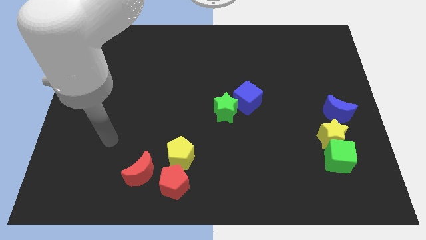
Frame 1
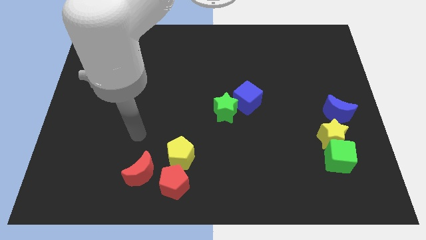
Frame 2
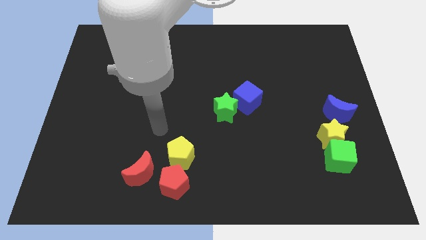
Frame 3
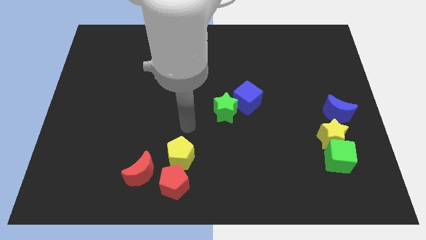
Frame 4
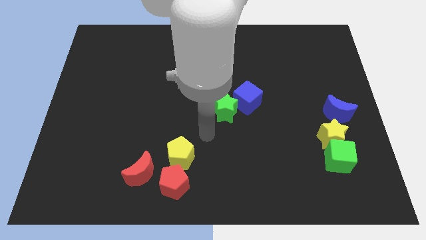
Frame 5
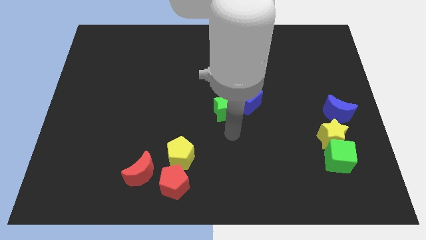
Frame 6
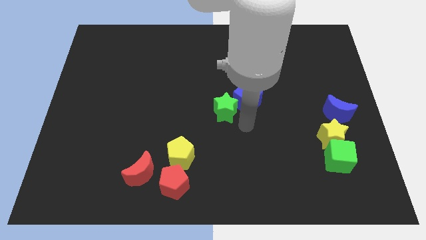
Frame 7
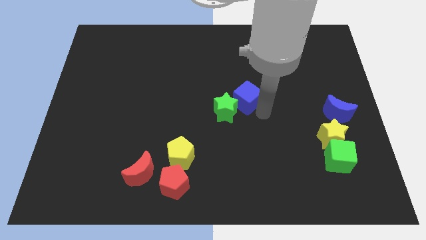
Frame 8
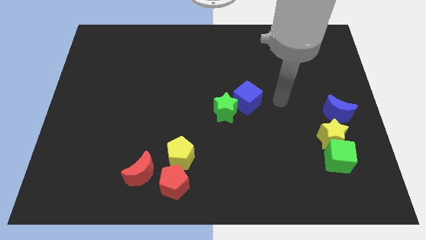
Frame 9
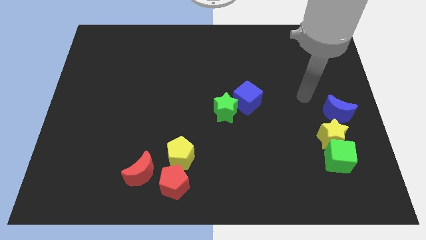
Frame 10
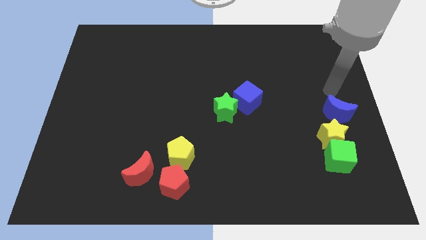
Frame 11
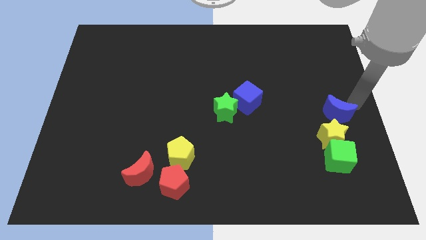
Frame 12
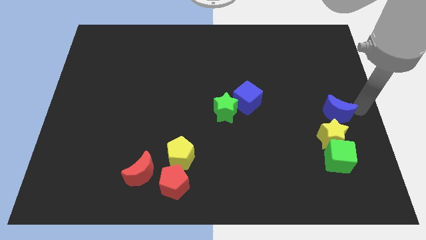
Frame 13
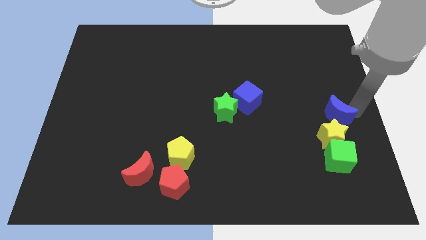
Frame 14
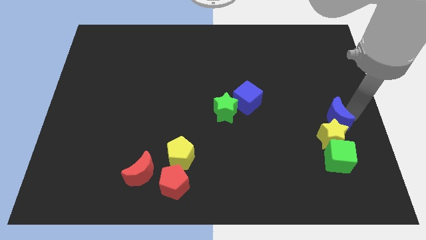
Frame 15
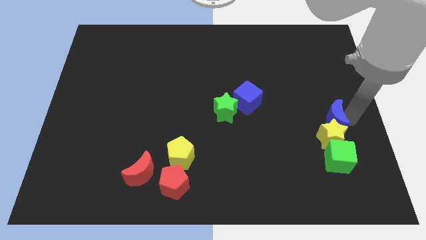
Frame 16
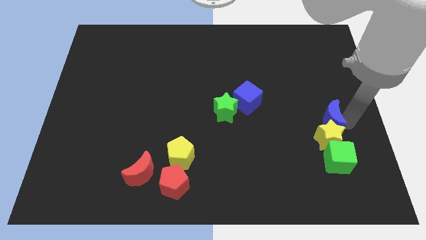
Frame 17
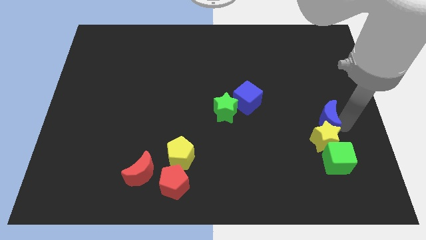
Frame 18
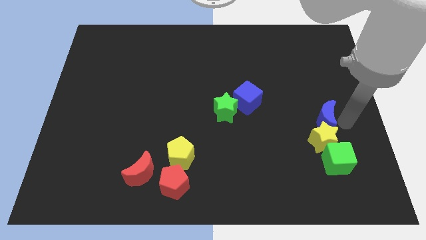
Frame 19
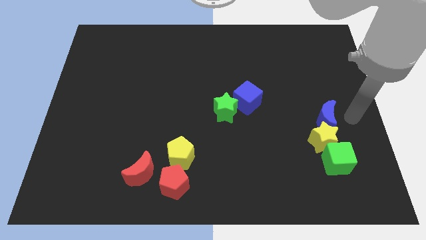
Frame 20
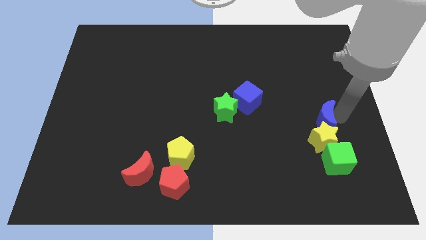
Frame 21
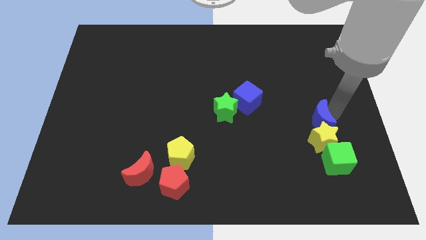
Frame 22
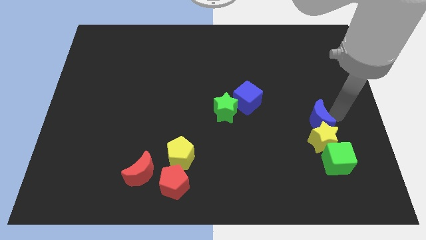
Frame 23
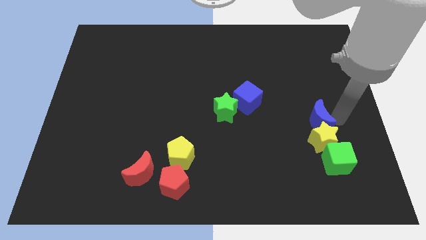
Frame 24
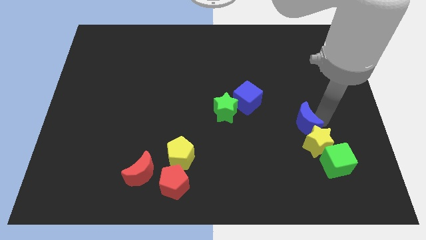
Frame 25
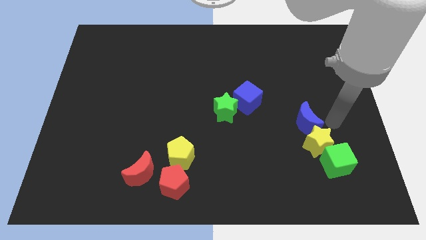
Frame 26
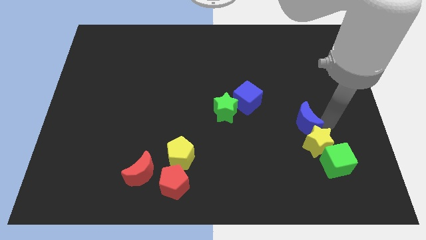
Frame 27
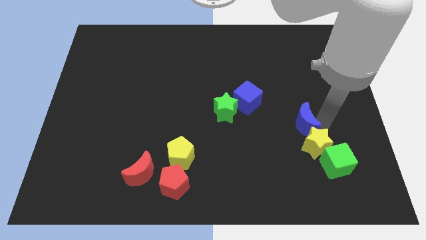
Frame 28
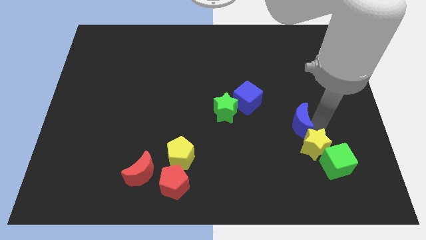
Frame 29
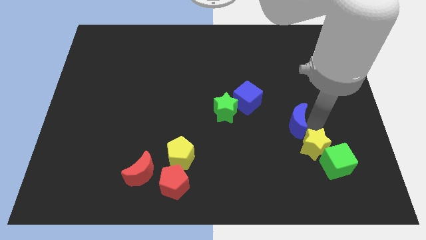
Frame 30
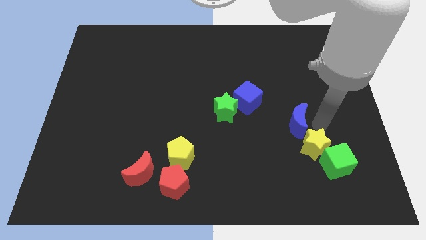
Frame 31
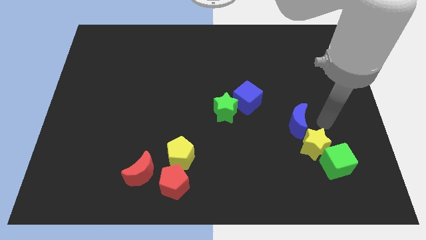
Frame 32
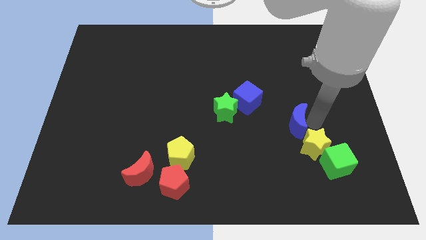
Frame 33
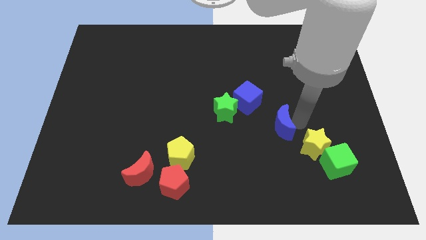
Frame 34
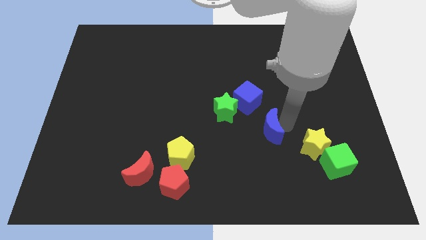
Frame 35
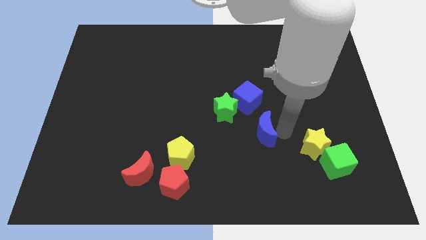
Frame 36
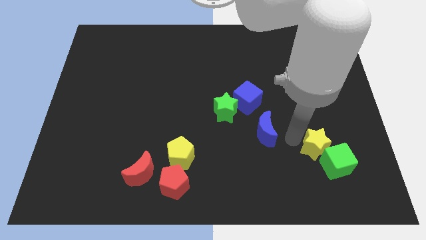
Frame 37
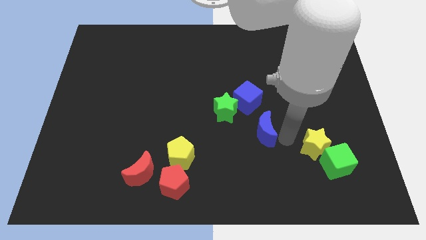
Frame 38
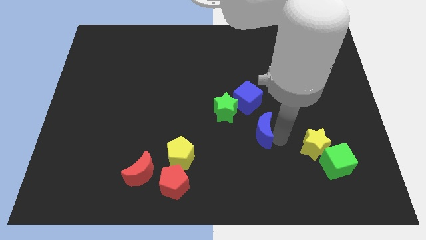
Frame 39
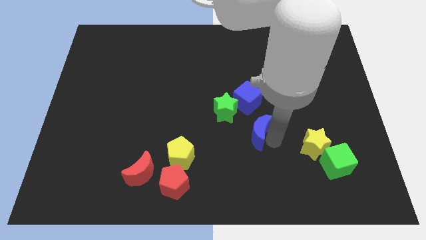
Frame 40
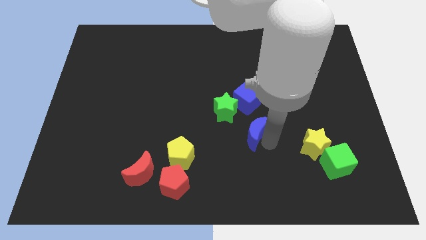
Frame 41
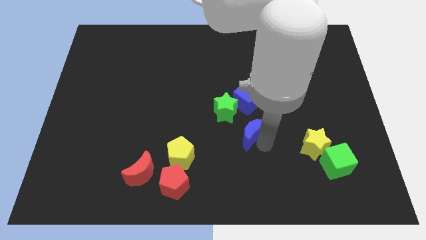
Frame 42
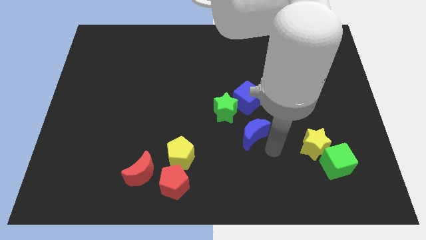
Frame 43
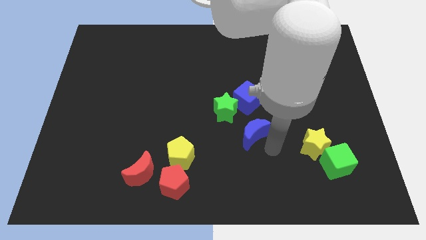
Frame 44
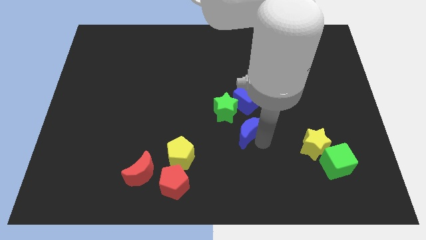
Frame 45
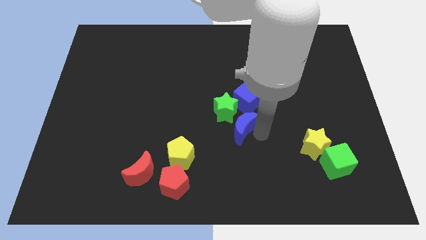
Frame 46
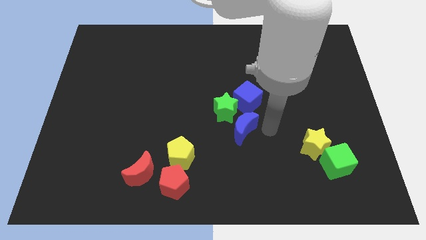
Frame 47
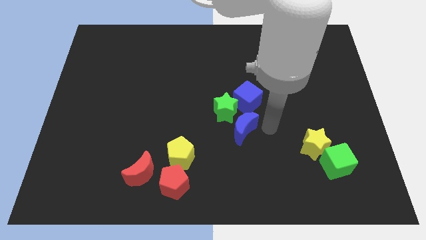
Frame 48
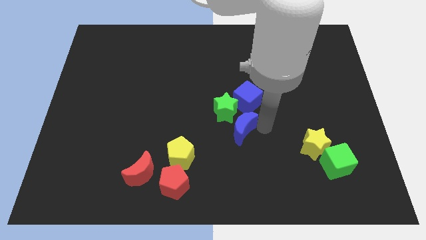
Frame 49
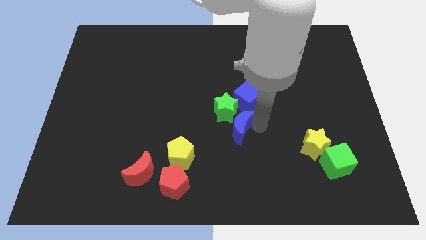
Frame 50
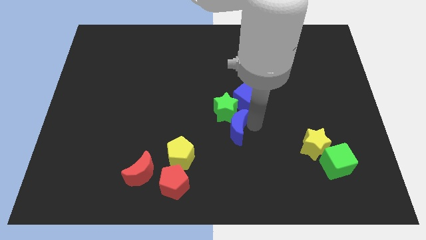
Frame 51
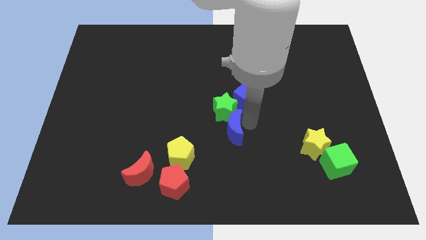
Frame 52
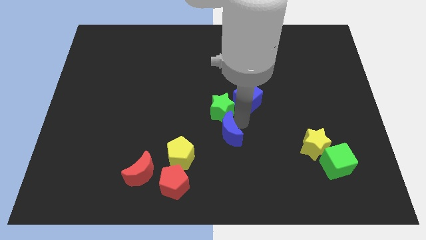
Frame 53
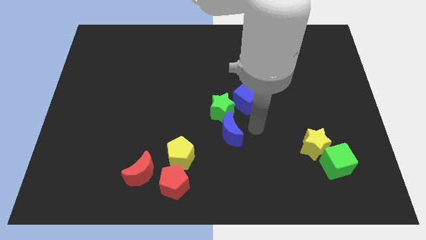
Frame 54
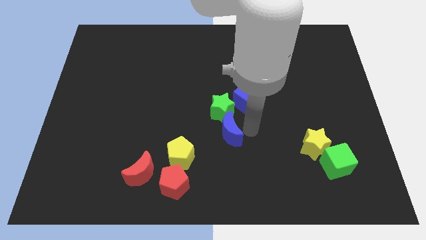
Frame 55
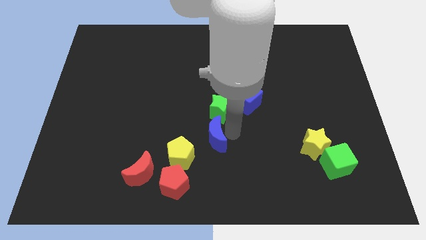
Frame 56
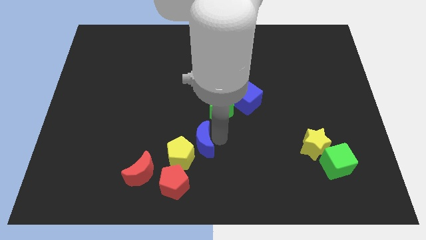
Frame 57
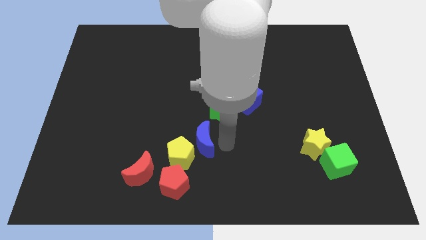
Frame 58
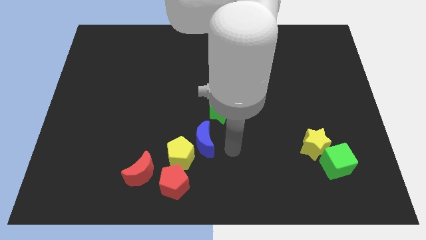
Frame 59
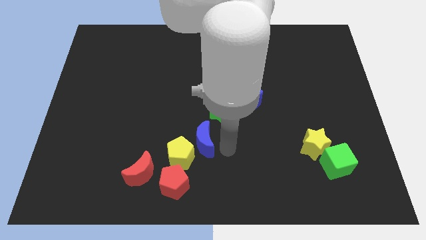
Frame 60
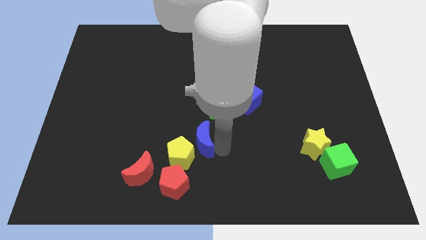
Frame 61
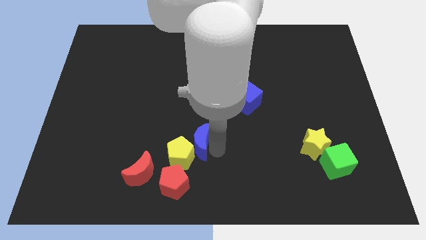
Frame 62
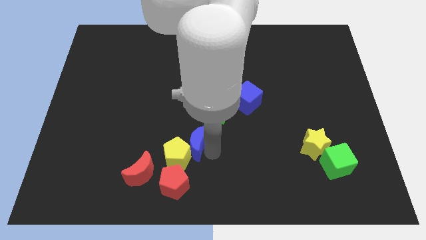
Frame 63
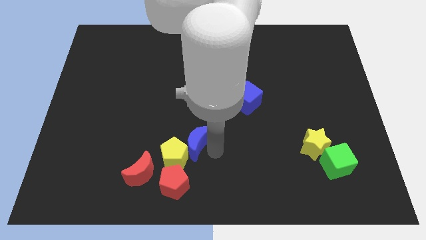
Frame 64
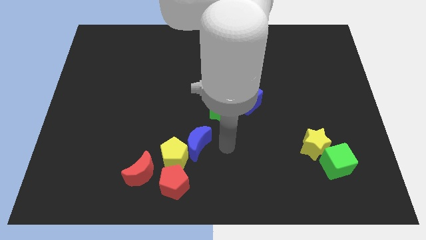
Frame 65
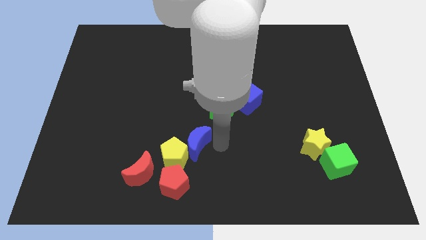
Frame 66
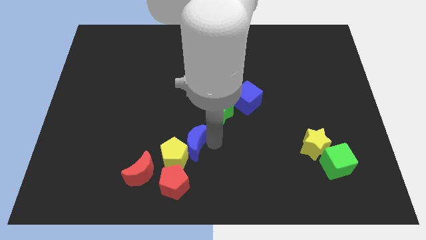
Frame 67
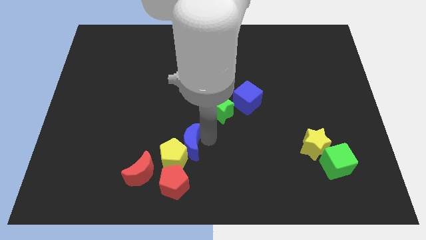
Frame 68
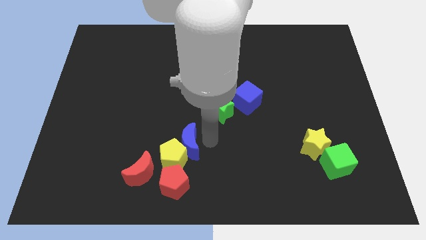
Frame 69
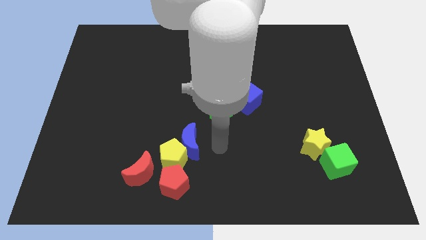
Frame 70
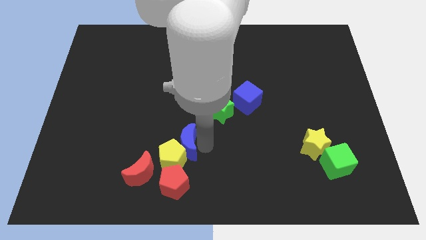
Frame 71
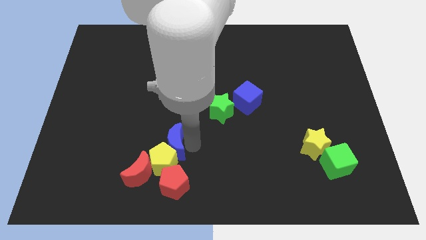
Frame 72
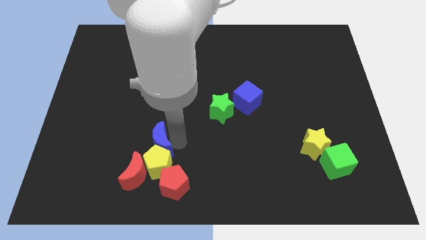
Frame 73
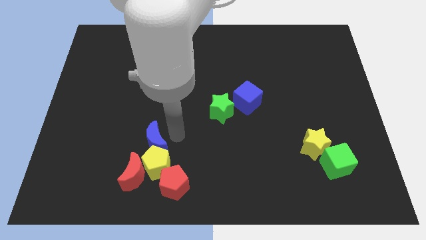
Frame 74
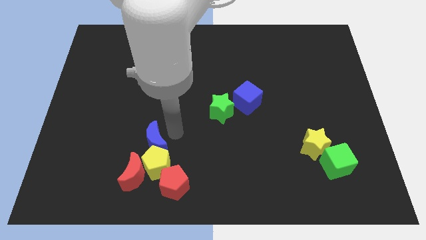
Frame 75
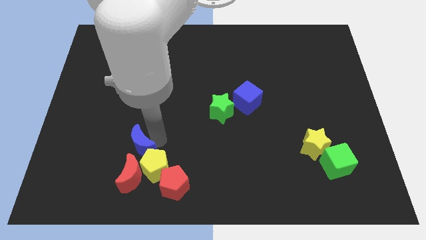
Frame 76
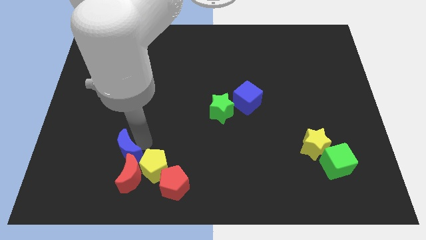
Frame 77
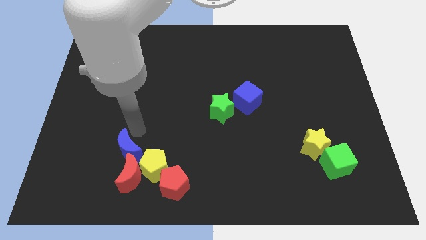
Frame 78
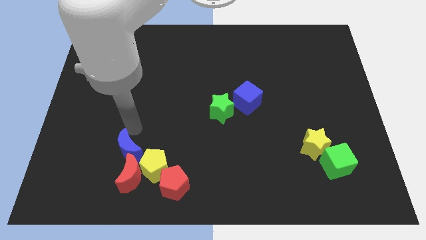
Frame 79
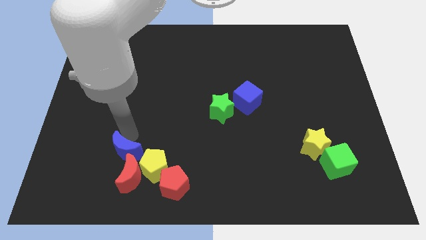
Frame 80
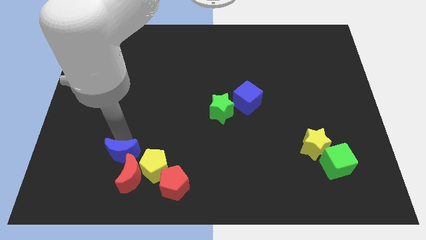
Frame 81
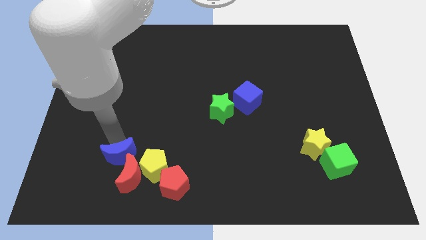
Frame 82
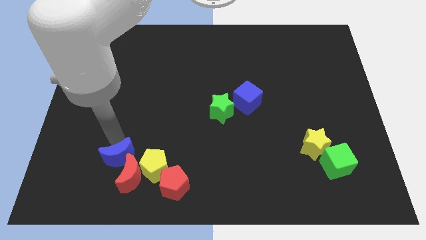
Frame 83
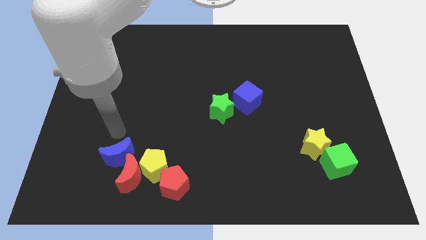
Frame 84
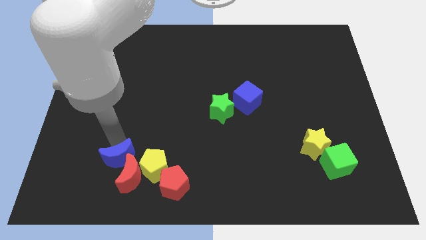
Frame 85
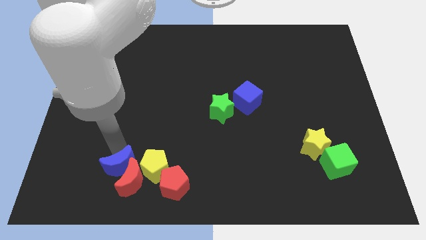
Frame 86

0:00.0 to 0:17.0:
push the blue moon just left of the red pentagon
